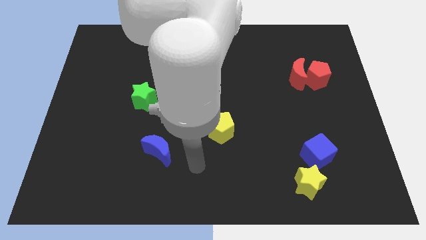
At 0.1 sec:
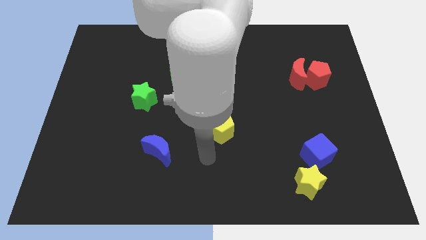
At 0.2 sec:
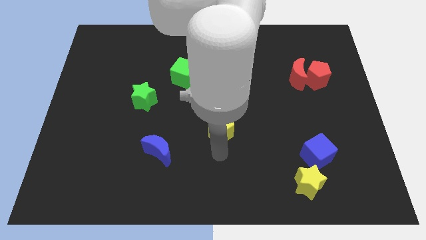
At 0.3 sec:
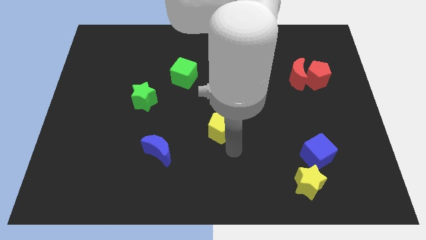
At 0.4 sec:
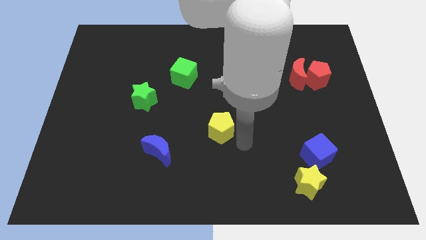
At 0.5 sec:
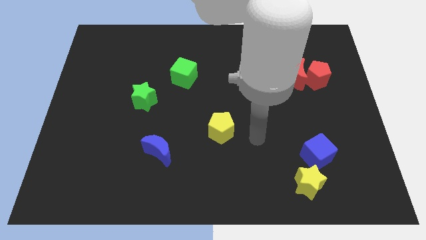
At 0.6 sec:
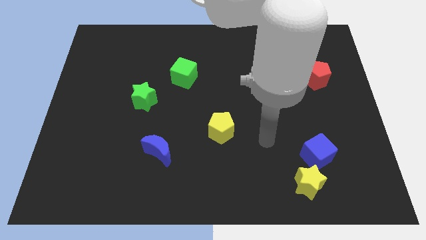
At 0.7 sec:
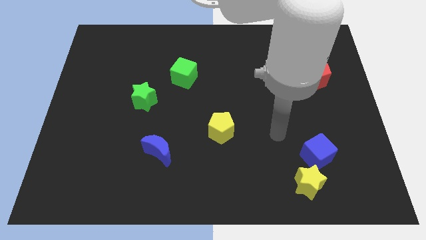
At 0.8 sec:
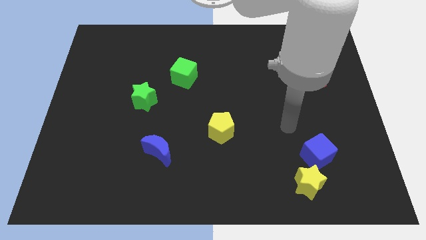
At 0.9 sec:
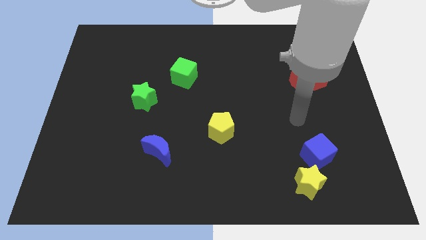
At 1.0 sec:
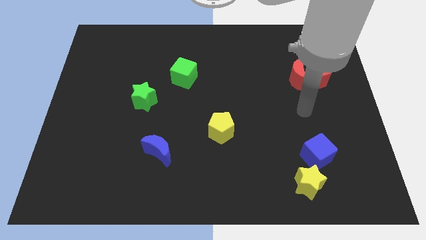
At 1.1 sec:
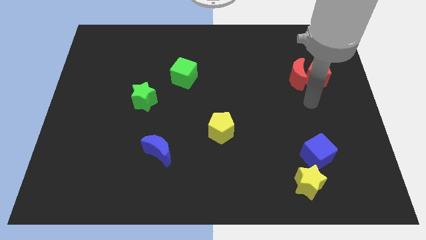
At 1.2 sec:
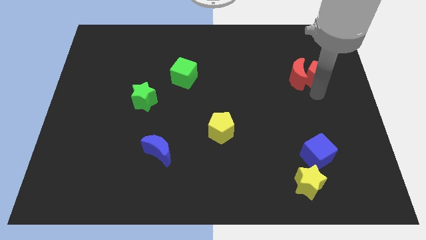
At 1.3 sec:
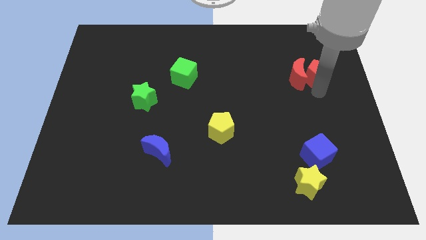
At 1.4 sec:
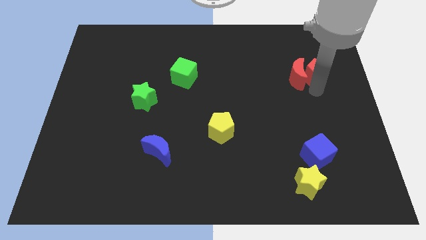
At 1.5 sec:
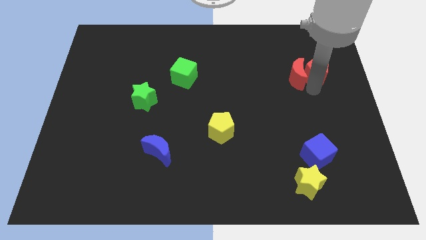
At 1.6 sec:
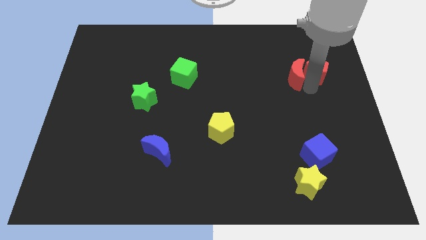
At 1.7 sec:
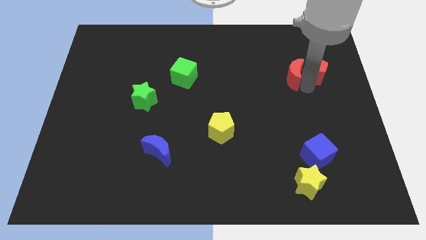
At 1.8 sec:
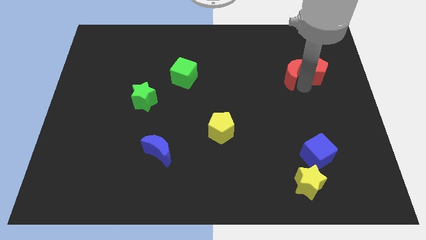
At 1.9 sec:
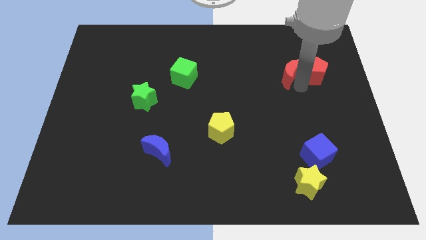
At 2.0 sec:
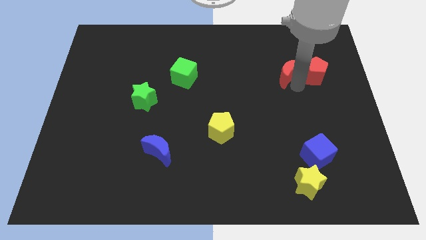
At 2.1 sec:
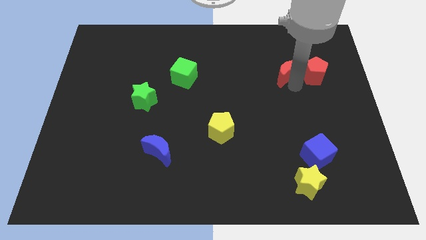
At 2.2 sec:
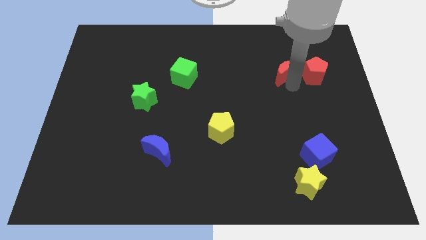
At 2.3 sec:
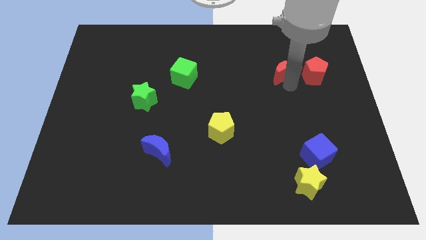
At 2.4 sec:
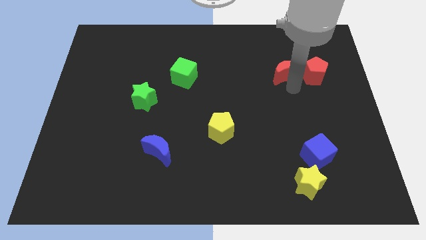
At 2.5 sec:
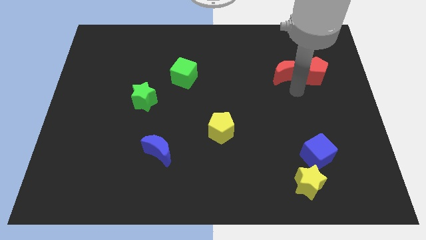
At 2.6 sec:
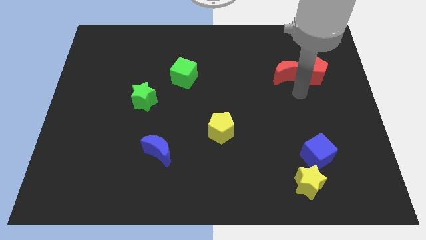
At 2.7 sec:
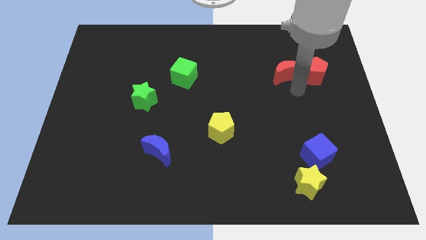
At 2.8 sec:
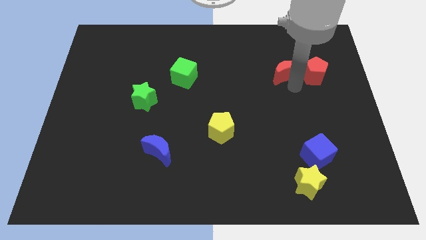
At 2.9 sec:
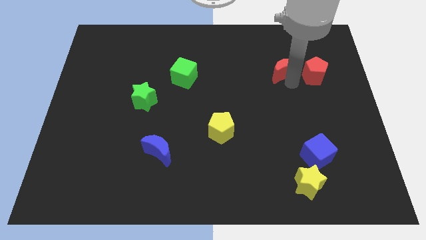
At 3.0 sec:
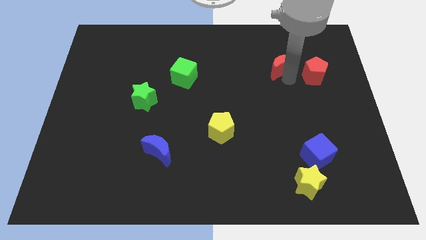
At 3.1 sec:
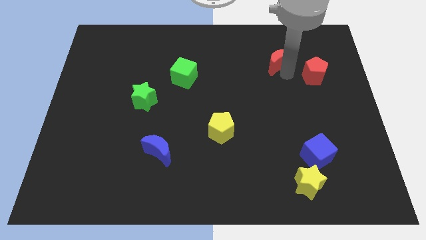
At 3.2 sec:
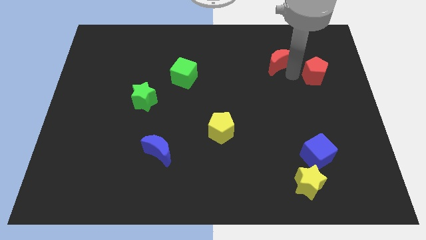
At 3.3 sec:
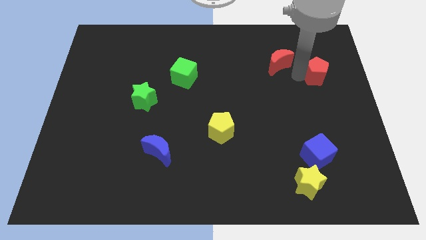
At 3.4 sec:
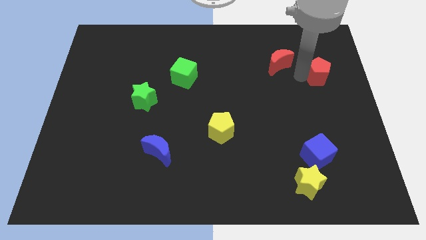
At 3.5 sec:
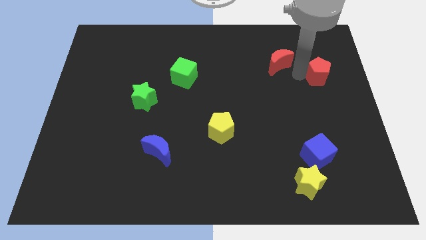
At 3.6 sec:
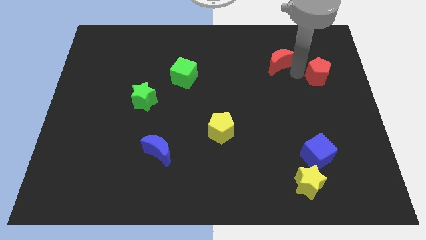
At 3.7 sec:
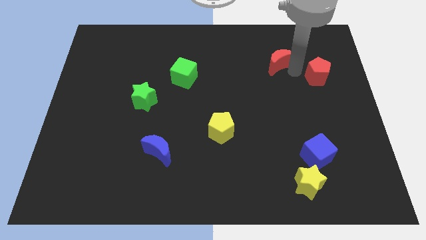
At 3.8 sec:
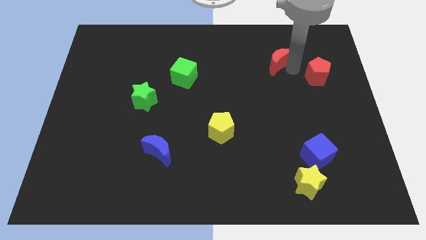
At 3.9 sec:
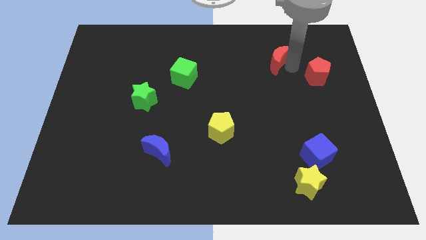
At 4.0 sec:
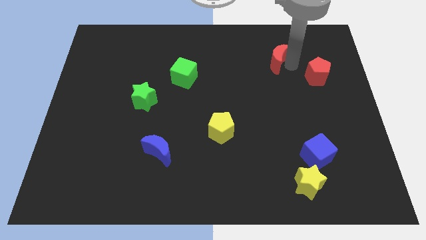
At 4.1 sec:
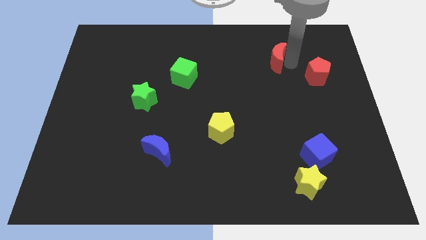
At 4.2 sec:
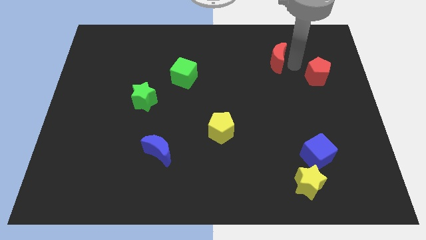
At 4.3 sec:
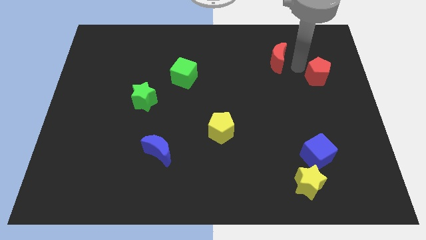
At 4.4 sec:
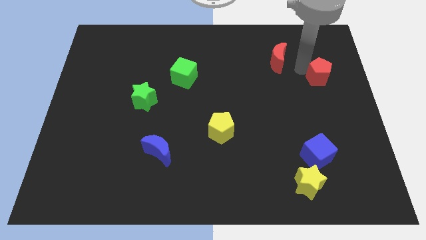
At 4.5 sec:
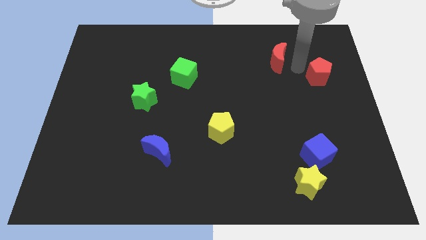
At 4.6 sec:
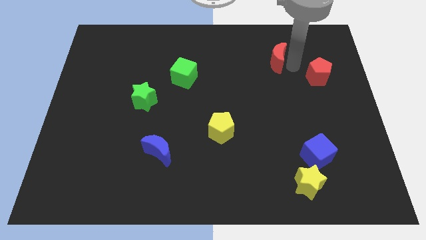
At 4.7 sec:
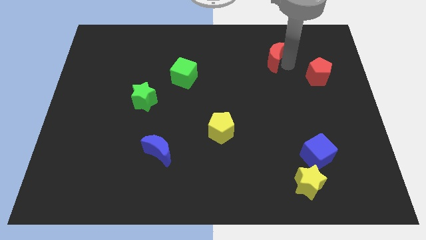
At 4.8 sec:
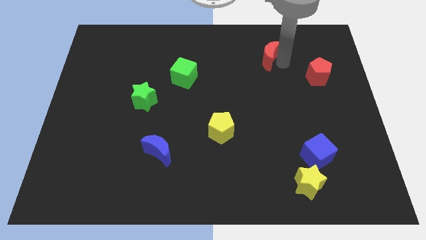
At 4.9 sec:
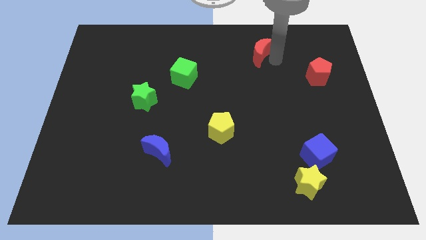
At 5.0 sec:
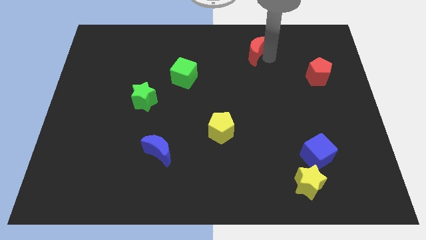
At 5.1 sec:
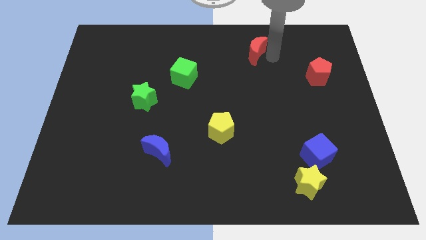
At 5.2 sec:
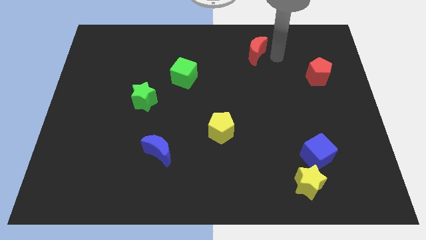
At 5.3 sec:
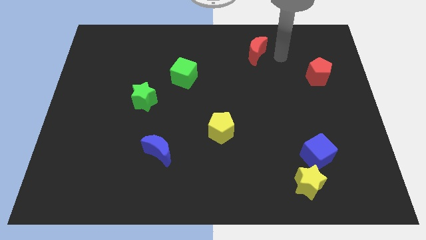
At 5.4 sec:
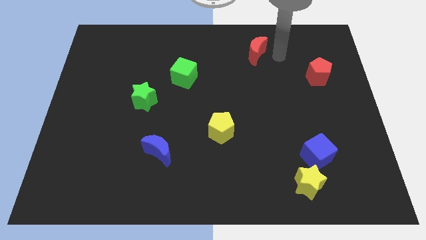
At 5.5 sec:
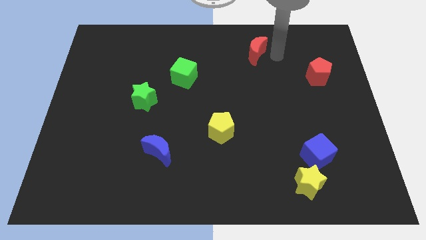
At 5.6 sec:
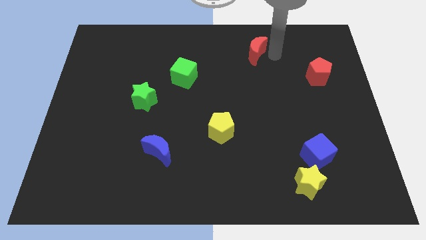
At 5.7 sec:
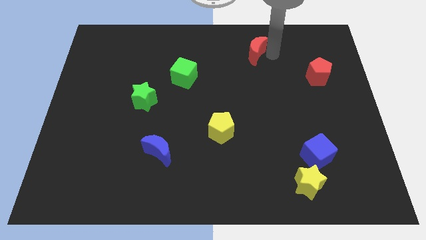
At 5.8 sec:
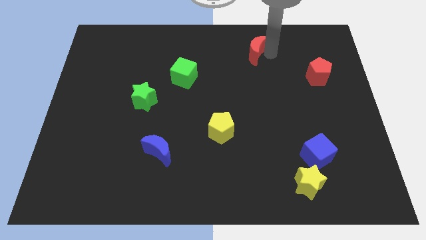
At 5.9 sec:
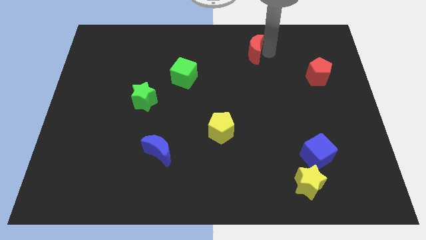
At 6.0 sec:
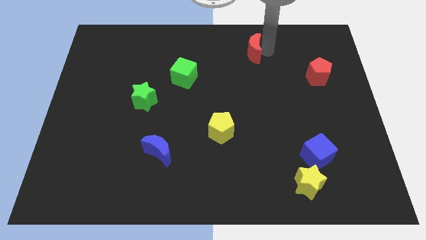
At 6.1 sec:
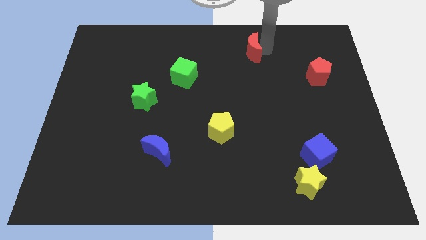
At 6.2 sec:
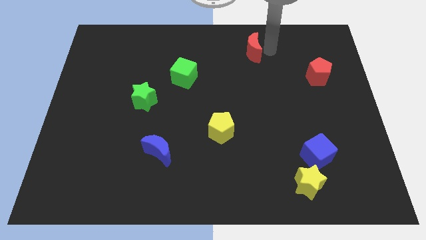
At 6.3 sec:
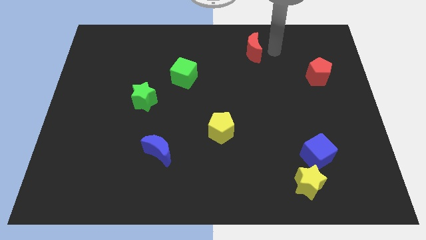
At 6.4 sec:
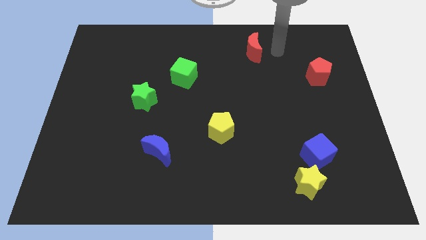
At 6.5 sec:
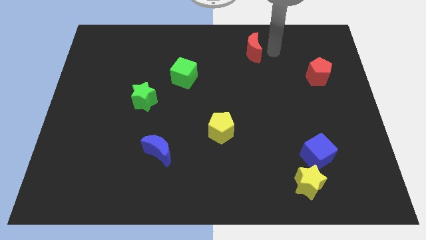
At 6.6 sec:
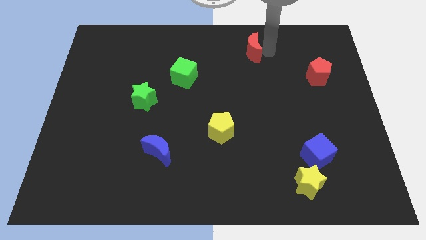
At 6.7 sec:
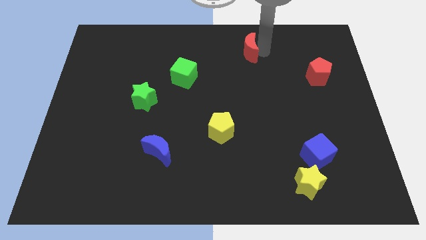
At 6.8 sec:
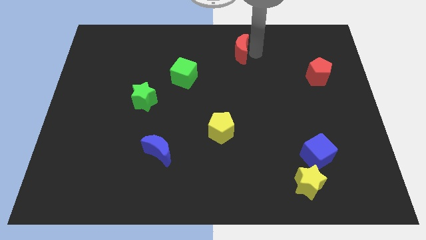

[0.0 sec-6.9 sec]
push the red moon to the towards your base
